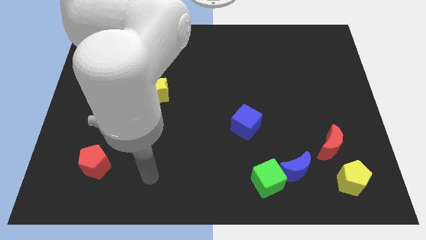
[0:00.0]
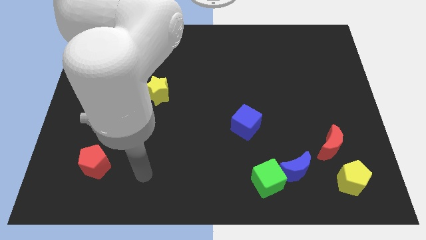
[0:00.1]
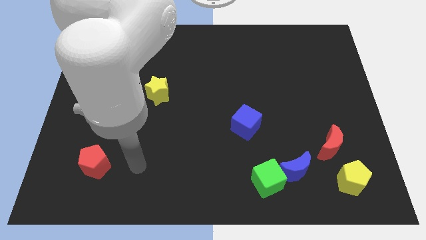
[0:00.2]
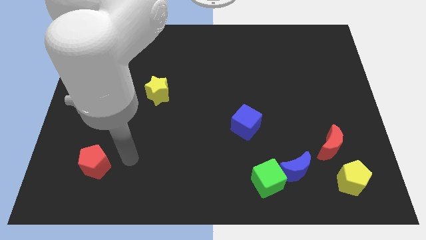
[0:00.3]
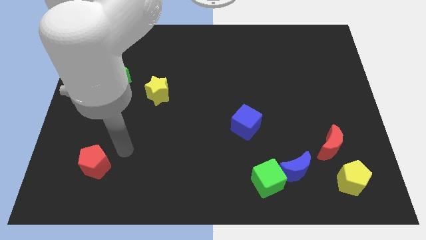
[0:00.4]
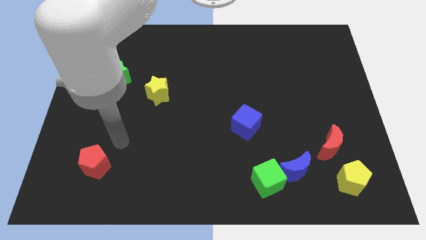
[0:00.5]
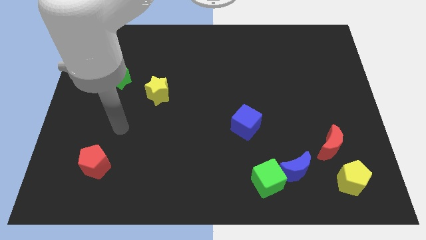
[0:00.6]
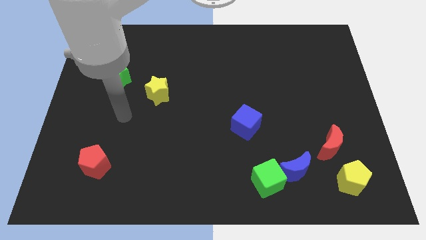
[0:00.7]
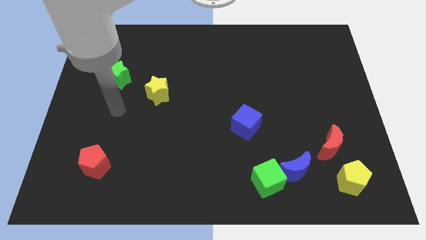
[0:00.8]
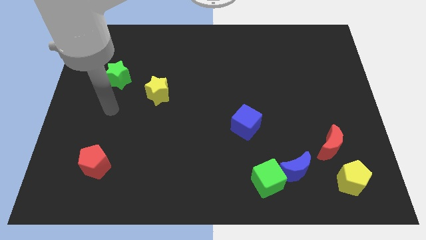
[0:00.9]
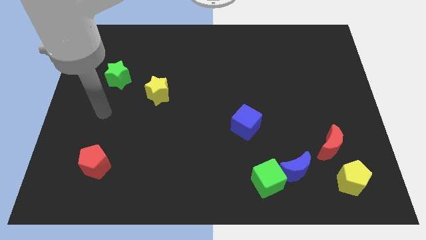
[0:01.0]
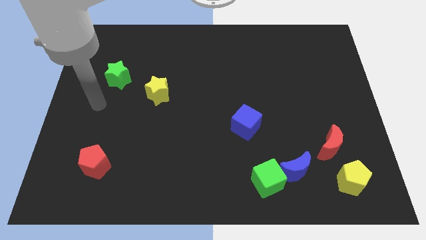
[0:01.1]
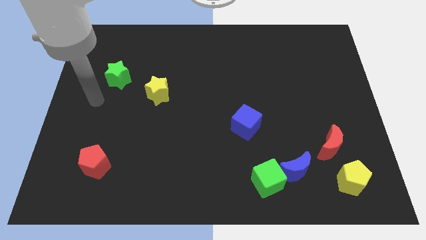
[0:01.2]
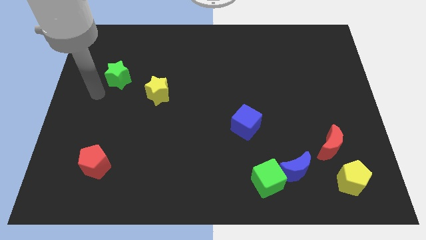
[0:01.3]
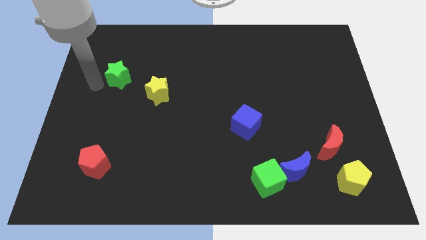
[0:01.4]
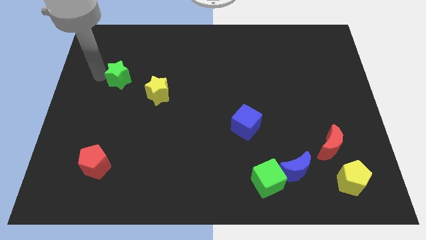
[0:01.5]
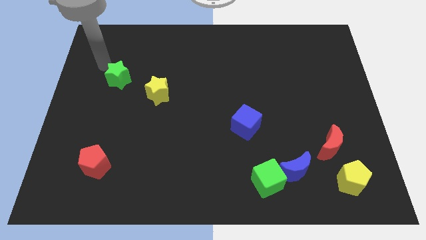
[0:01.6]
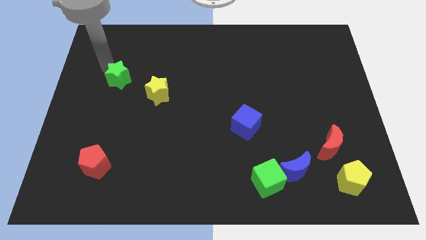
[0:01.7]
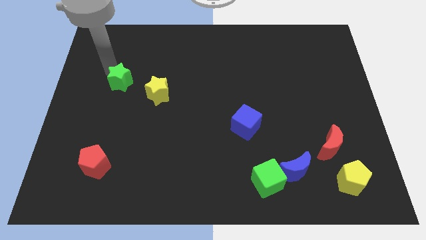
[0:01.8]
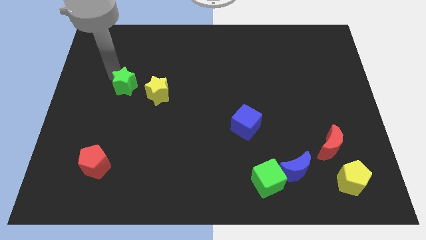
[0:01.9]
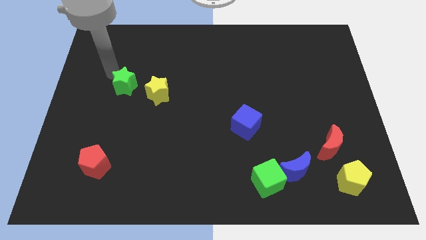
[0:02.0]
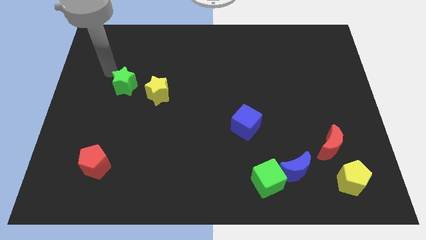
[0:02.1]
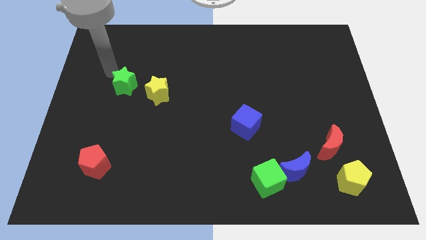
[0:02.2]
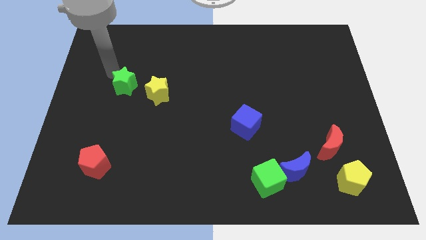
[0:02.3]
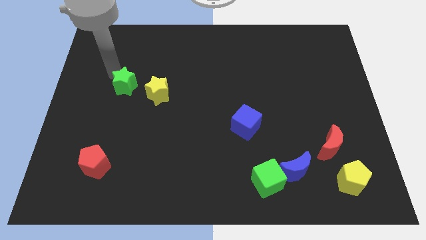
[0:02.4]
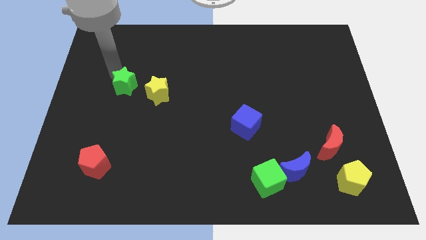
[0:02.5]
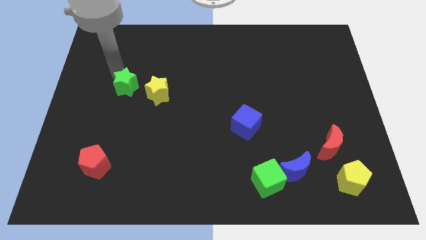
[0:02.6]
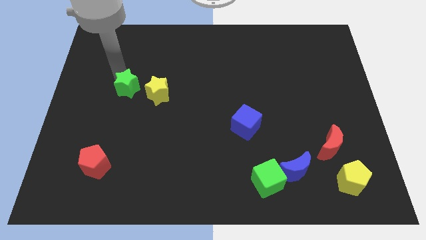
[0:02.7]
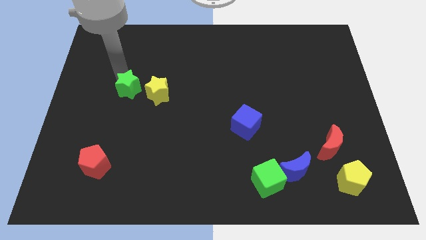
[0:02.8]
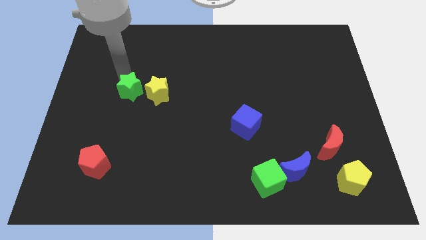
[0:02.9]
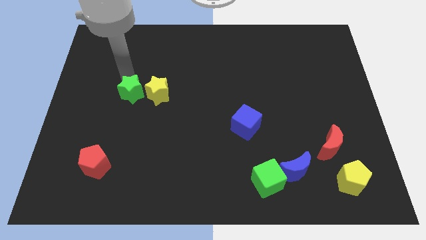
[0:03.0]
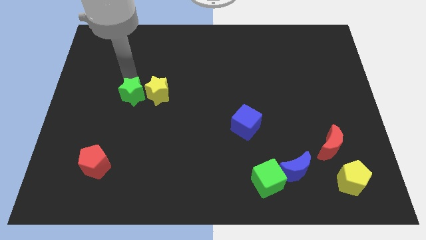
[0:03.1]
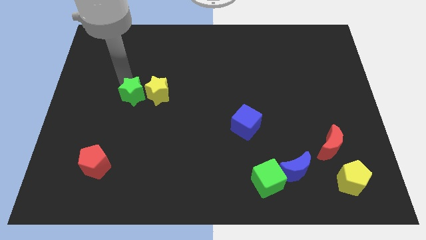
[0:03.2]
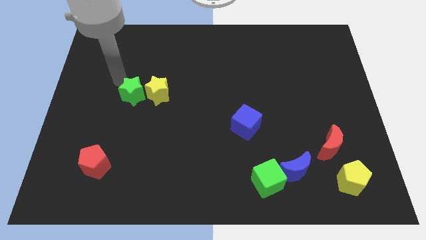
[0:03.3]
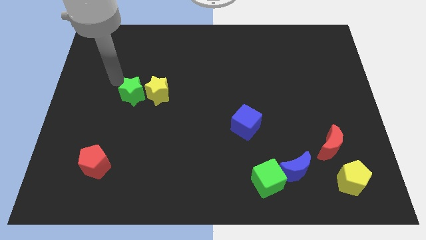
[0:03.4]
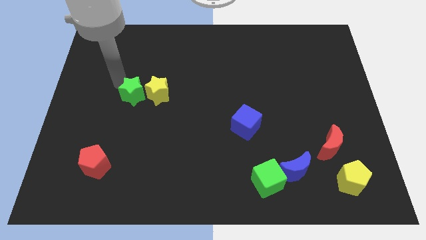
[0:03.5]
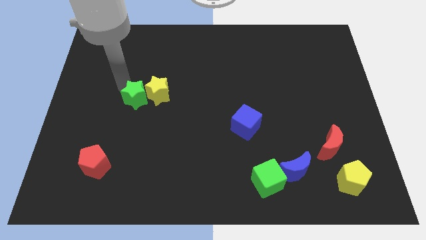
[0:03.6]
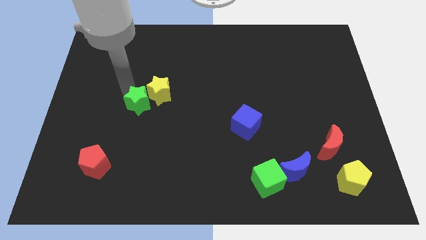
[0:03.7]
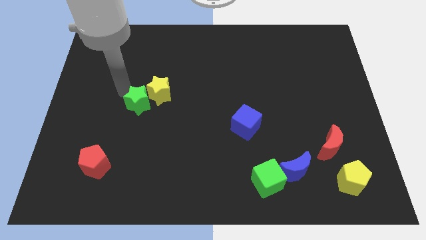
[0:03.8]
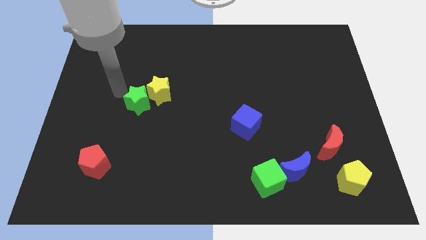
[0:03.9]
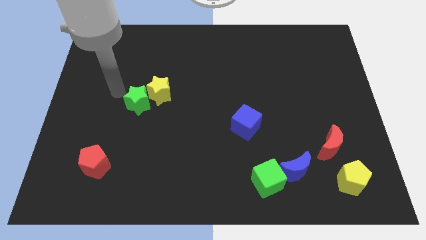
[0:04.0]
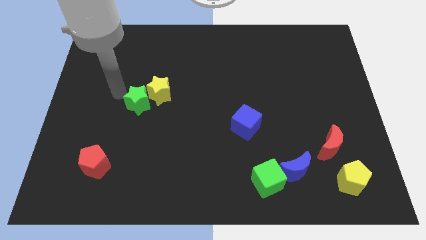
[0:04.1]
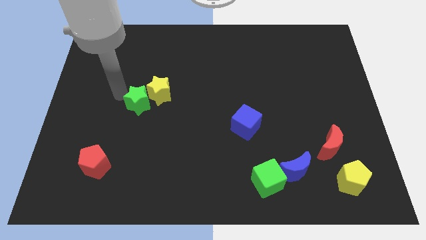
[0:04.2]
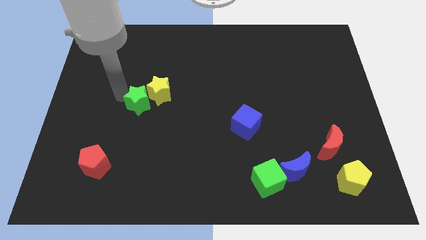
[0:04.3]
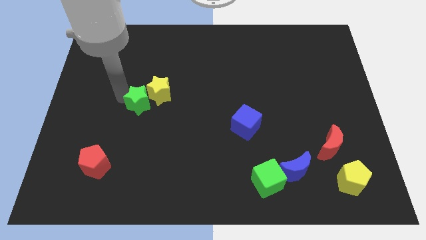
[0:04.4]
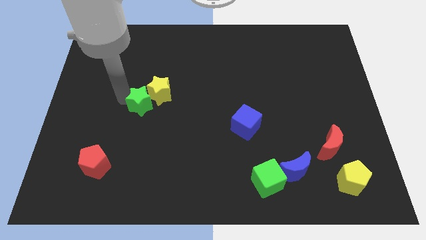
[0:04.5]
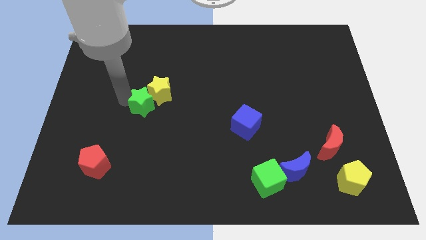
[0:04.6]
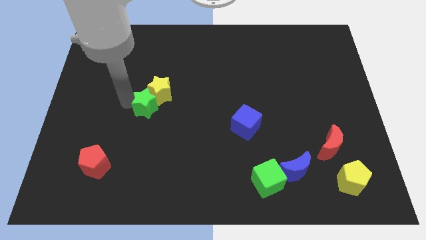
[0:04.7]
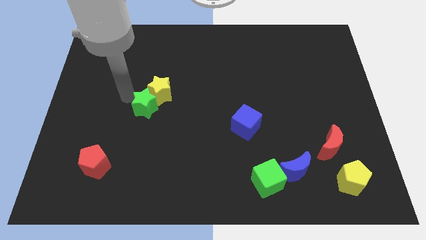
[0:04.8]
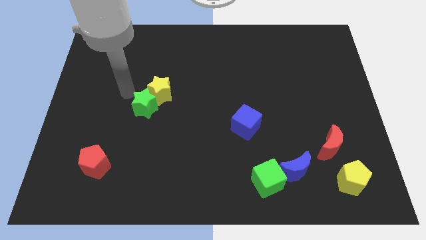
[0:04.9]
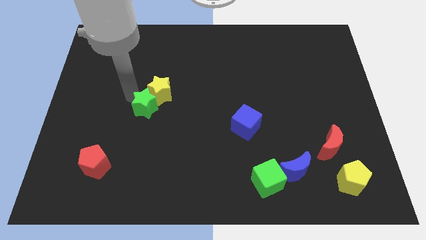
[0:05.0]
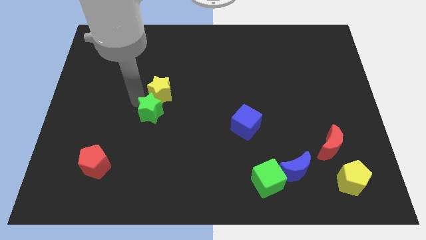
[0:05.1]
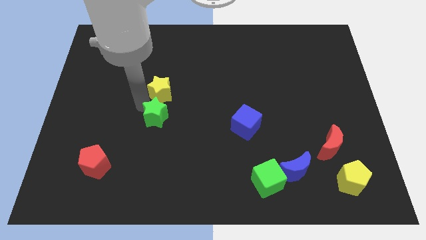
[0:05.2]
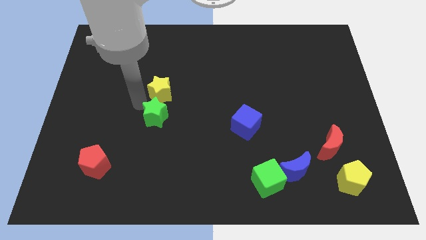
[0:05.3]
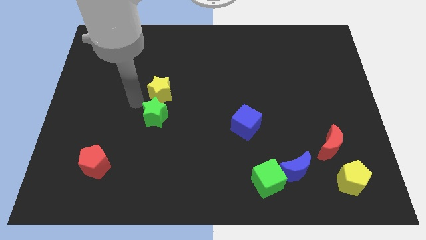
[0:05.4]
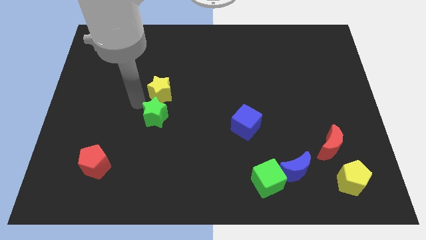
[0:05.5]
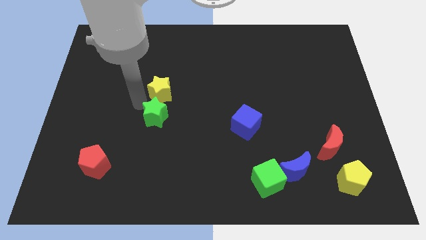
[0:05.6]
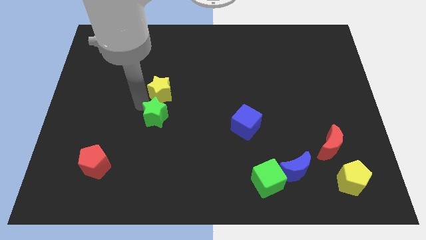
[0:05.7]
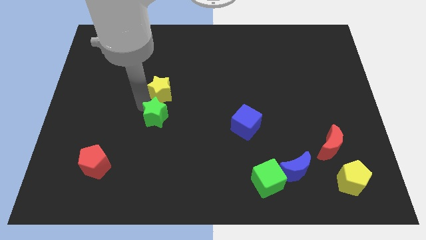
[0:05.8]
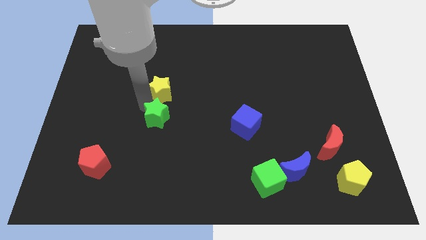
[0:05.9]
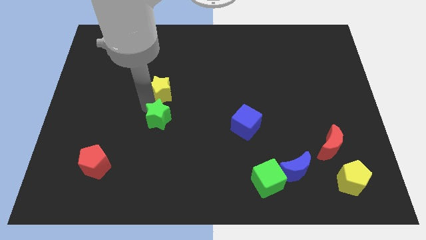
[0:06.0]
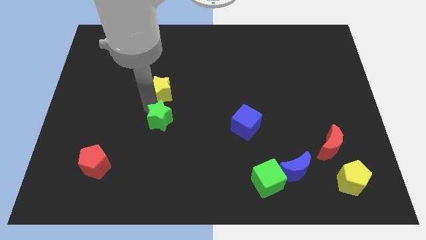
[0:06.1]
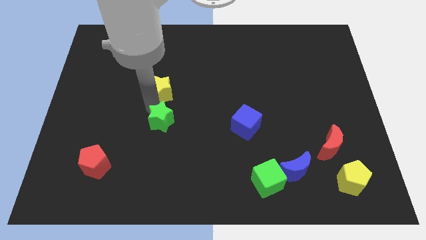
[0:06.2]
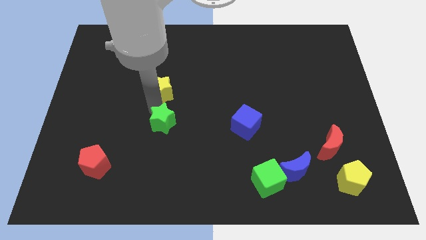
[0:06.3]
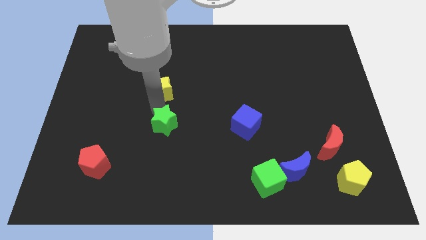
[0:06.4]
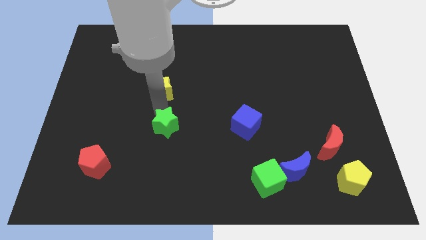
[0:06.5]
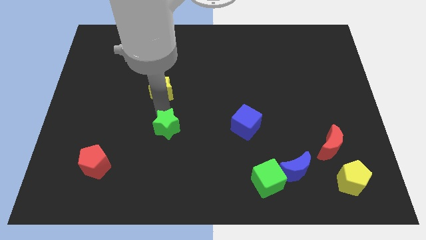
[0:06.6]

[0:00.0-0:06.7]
slide the green star down and right diagonally
